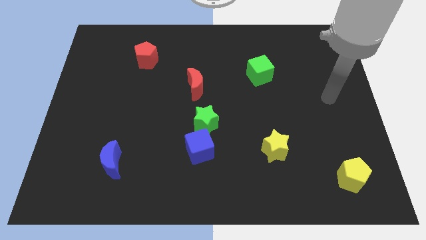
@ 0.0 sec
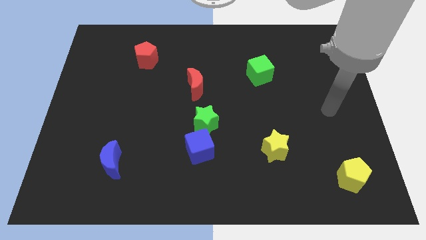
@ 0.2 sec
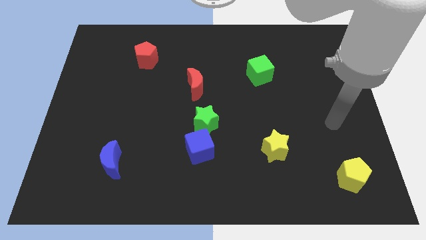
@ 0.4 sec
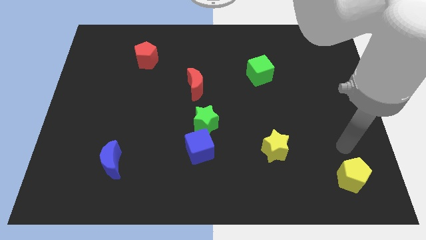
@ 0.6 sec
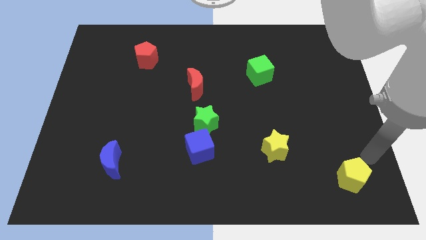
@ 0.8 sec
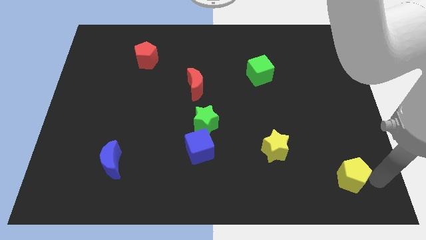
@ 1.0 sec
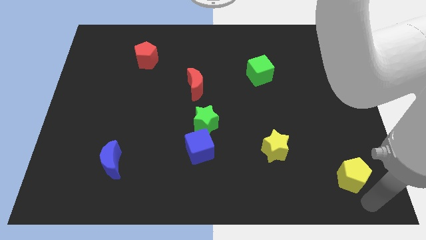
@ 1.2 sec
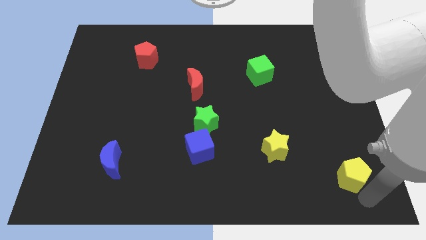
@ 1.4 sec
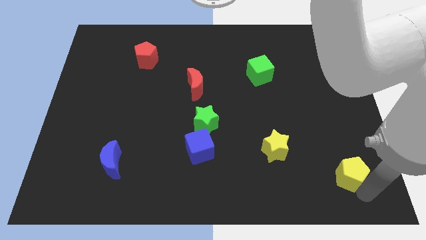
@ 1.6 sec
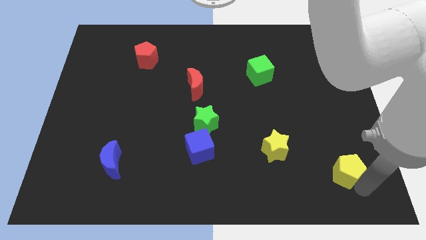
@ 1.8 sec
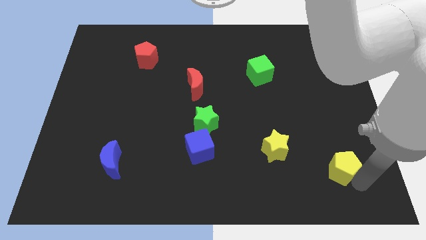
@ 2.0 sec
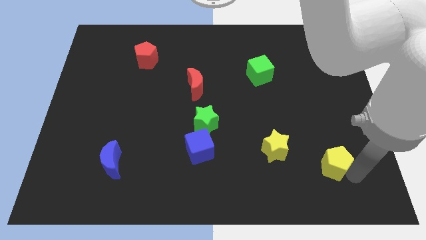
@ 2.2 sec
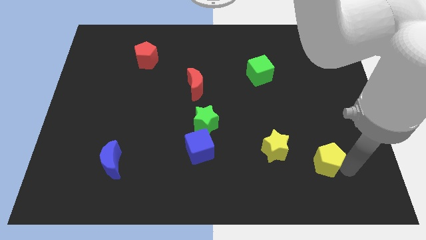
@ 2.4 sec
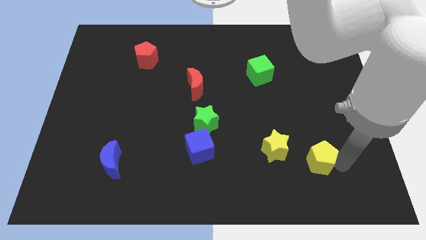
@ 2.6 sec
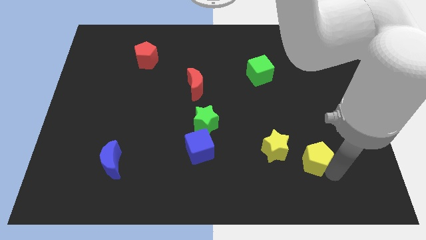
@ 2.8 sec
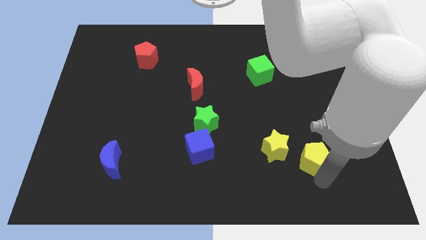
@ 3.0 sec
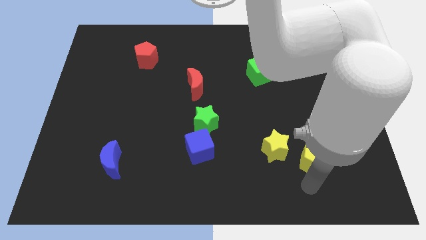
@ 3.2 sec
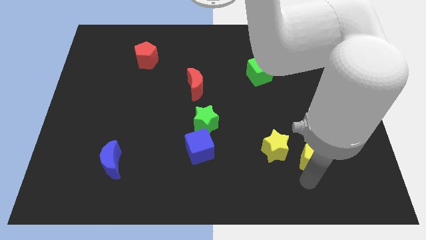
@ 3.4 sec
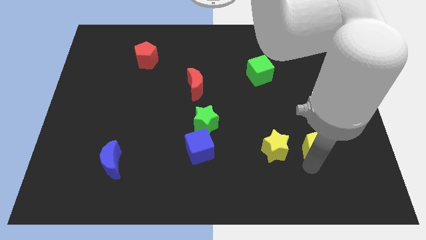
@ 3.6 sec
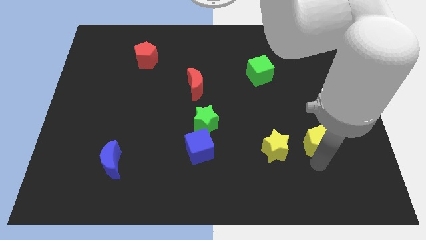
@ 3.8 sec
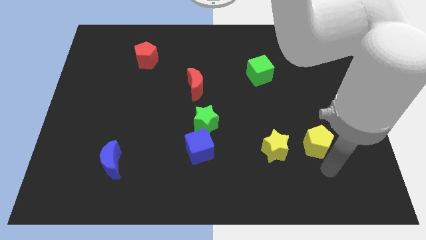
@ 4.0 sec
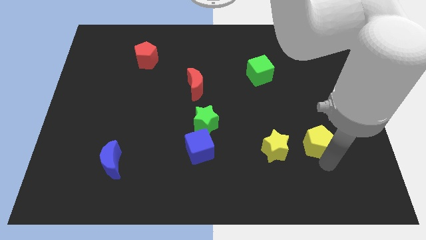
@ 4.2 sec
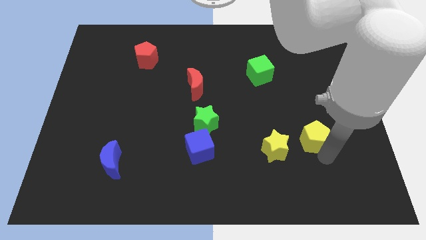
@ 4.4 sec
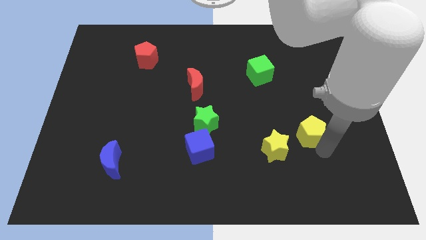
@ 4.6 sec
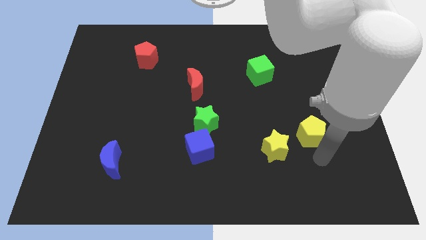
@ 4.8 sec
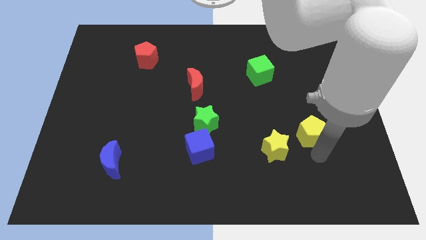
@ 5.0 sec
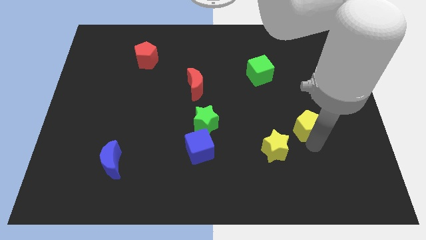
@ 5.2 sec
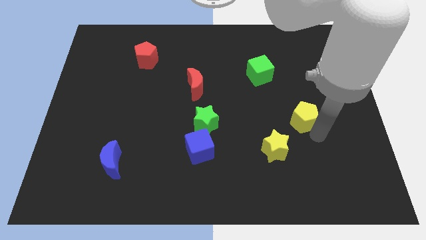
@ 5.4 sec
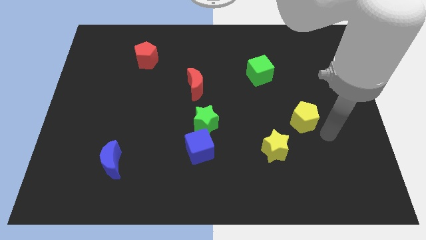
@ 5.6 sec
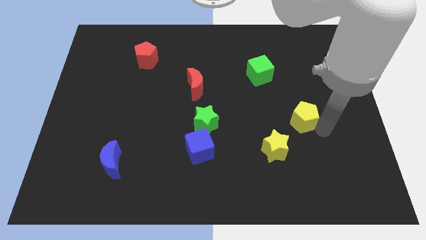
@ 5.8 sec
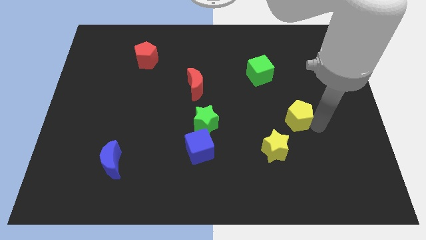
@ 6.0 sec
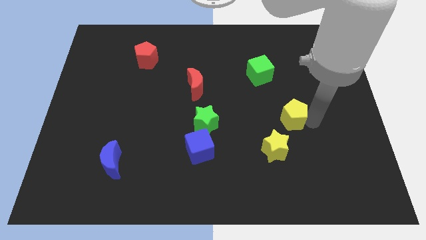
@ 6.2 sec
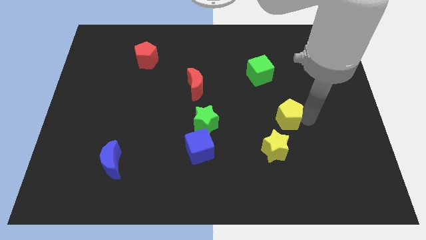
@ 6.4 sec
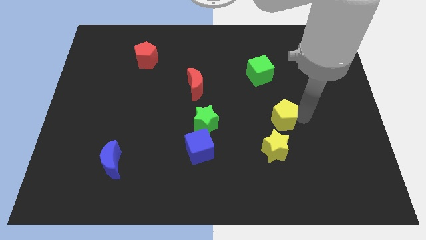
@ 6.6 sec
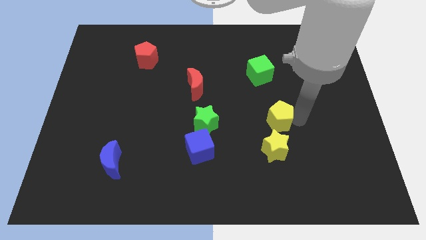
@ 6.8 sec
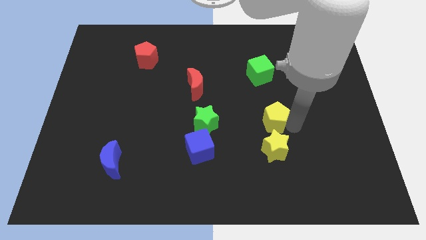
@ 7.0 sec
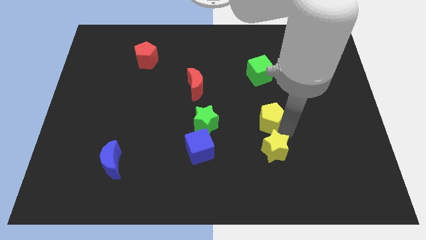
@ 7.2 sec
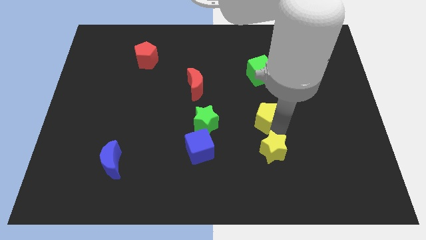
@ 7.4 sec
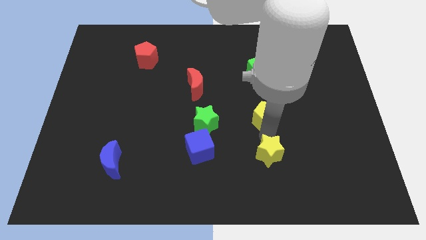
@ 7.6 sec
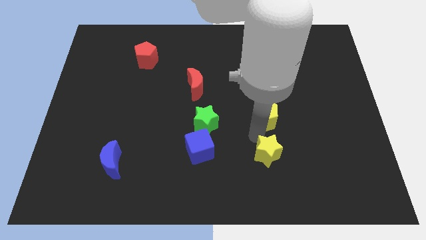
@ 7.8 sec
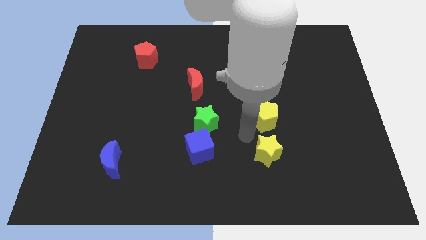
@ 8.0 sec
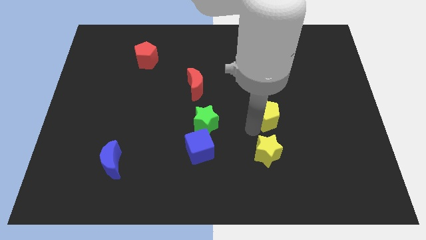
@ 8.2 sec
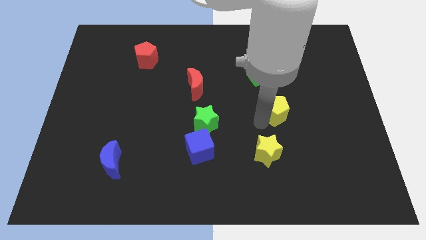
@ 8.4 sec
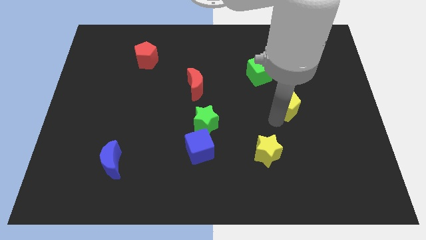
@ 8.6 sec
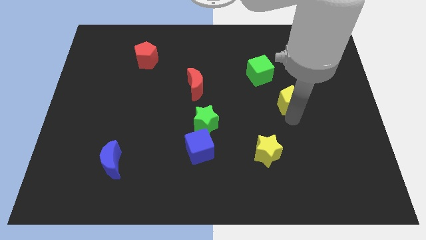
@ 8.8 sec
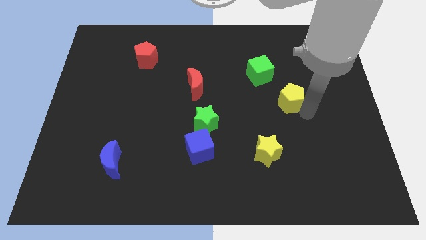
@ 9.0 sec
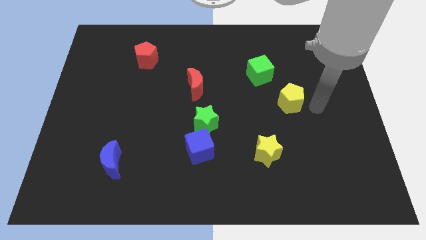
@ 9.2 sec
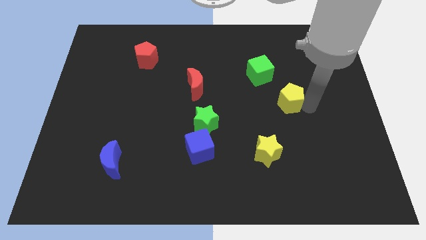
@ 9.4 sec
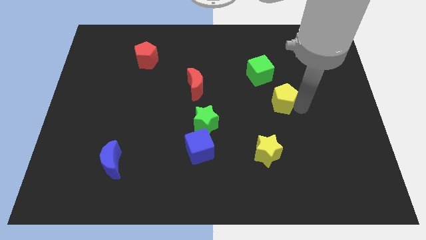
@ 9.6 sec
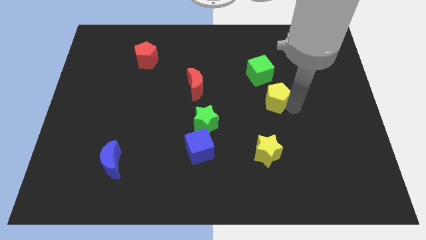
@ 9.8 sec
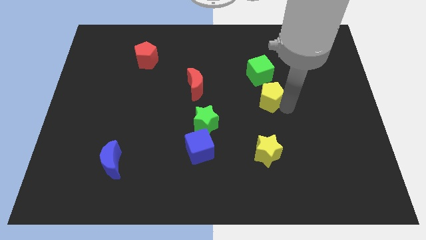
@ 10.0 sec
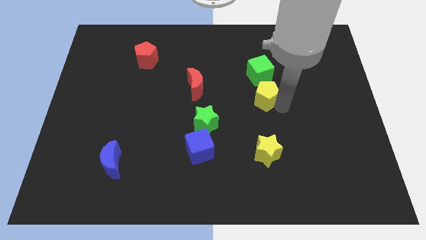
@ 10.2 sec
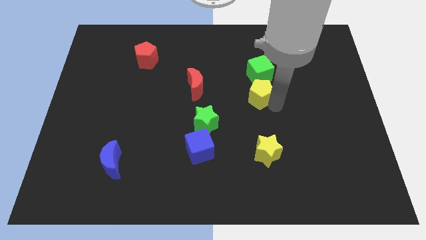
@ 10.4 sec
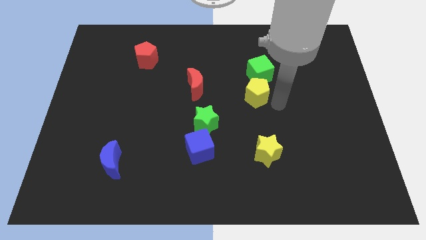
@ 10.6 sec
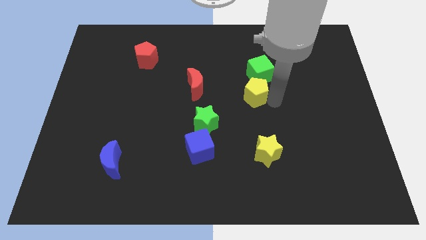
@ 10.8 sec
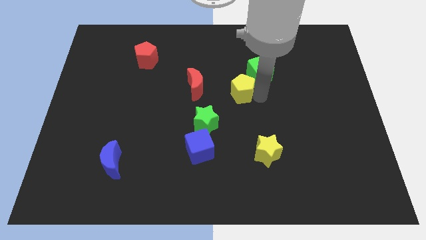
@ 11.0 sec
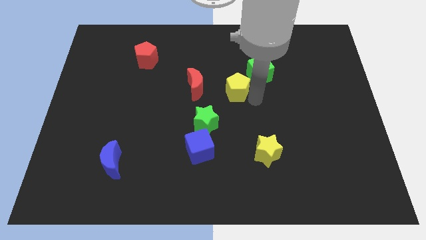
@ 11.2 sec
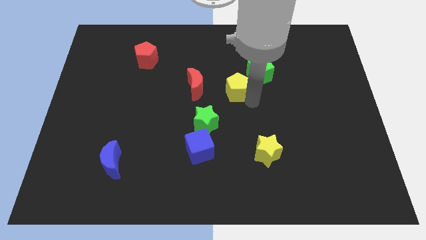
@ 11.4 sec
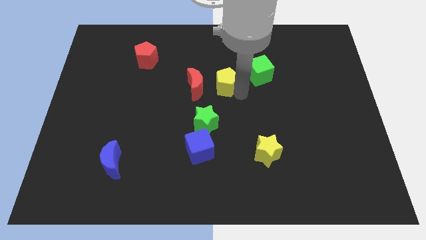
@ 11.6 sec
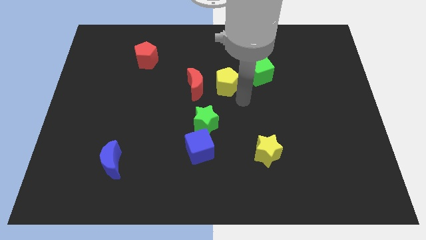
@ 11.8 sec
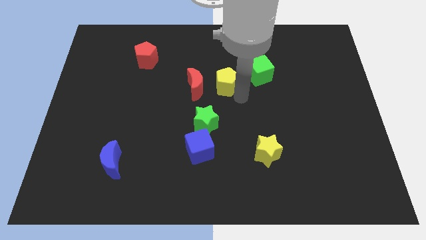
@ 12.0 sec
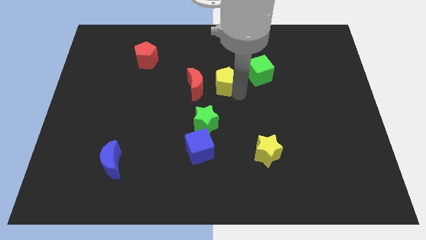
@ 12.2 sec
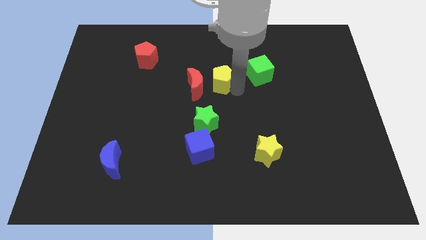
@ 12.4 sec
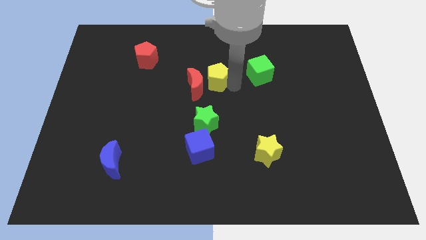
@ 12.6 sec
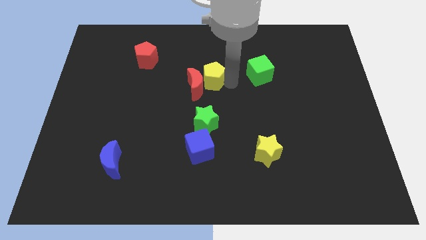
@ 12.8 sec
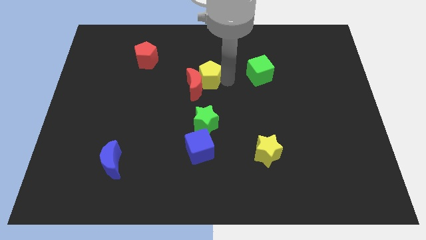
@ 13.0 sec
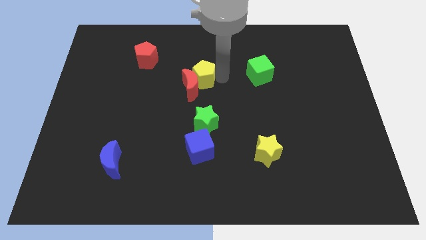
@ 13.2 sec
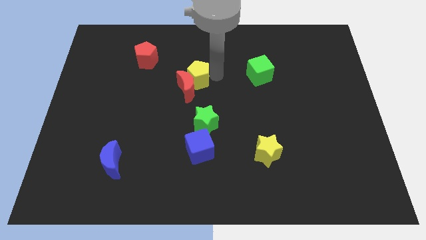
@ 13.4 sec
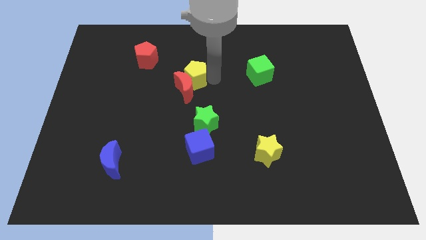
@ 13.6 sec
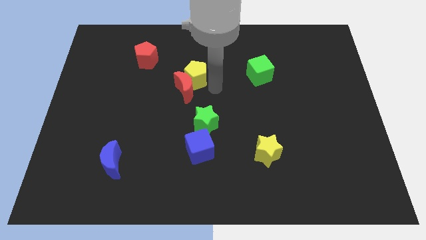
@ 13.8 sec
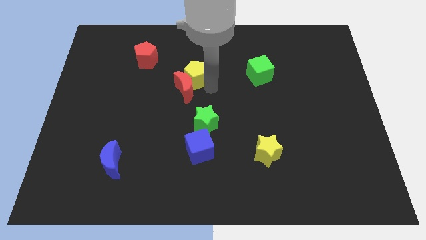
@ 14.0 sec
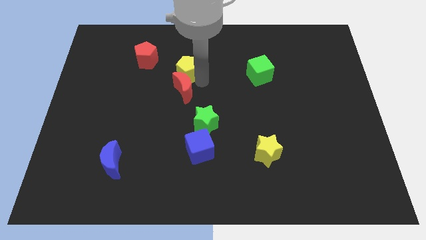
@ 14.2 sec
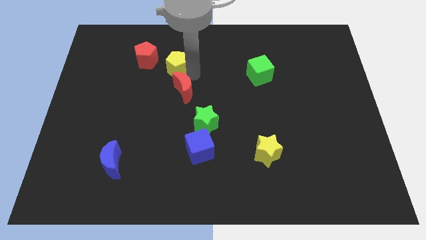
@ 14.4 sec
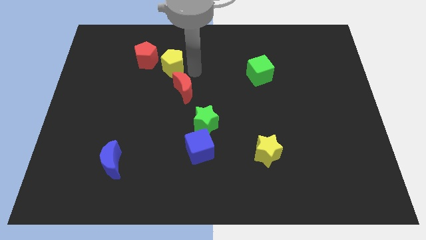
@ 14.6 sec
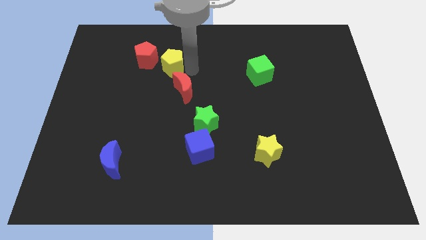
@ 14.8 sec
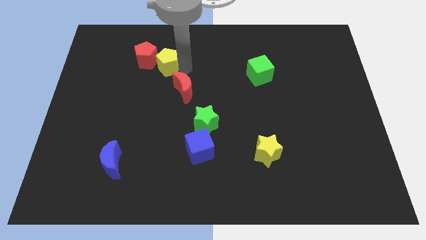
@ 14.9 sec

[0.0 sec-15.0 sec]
push the yellow pentagon next to the red pentagon
